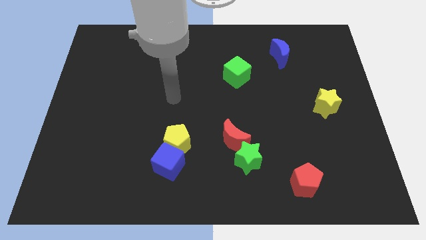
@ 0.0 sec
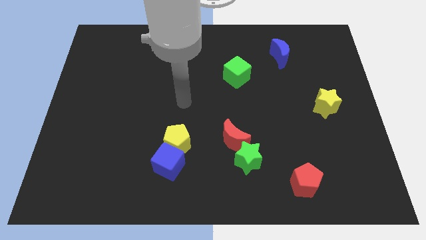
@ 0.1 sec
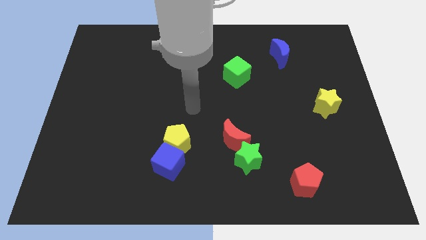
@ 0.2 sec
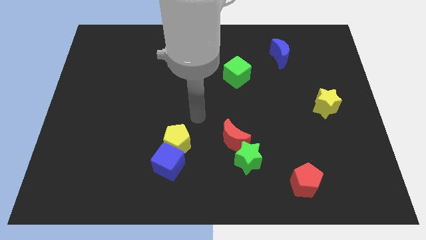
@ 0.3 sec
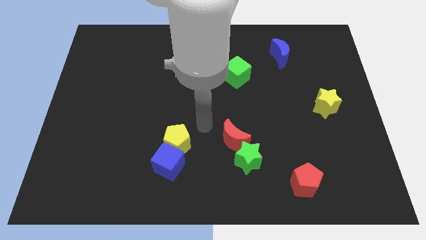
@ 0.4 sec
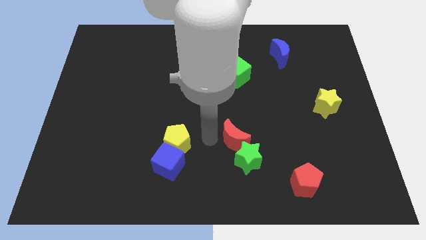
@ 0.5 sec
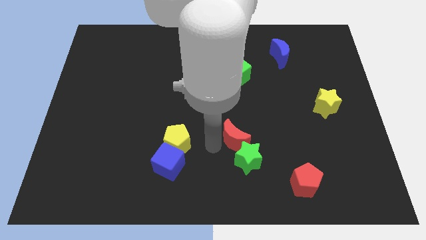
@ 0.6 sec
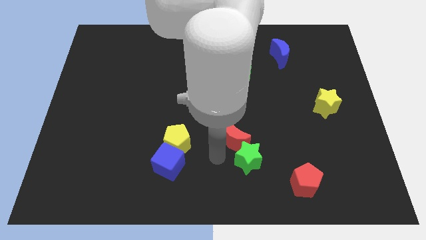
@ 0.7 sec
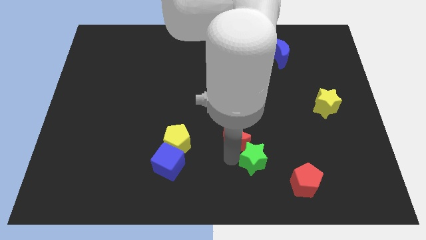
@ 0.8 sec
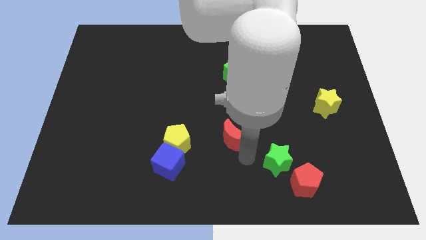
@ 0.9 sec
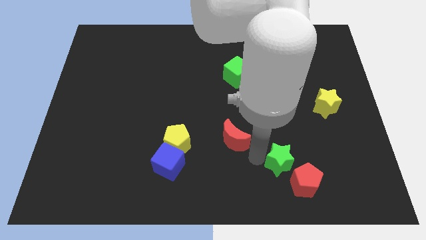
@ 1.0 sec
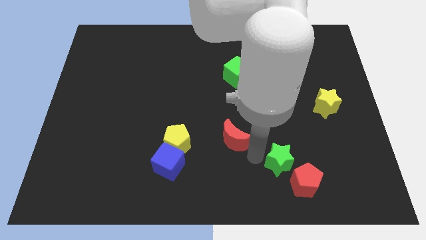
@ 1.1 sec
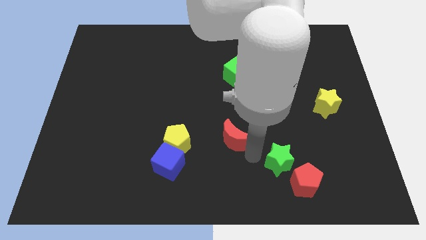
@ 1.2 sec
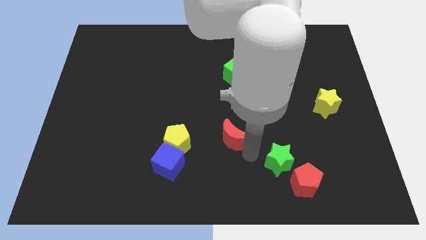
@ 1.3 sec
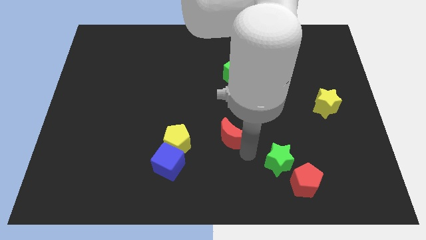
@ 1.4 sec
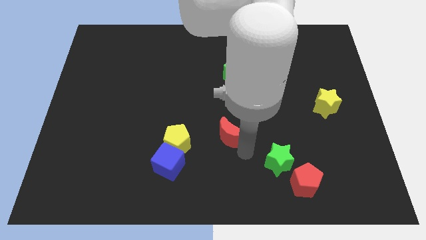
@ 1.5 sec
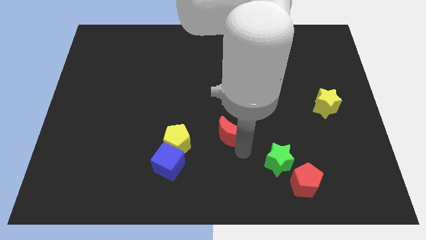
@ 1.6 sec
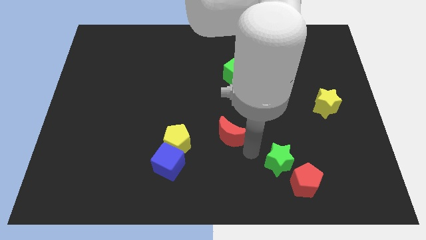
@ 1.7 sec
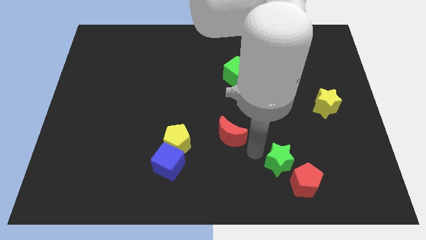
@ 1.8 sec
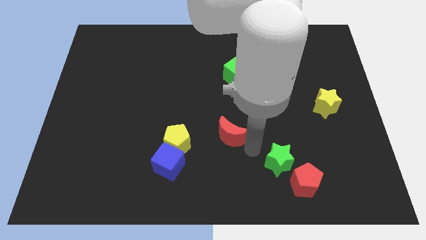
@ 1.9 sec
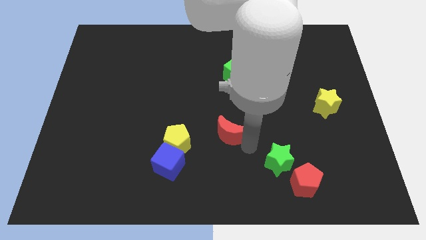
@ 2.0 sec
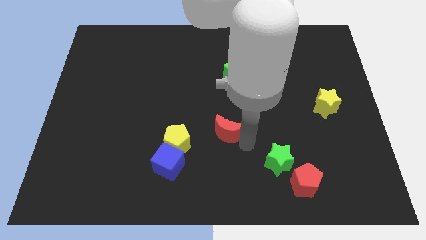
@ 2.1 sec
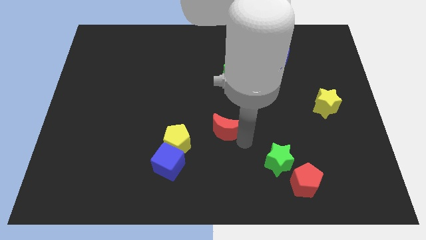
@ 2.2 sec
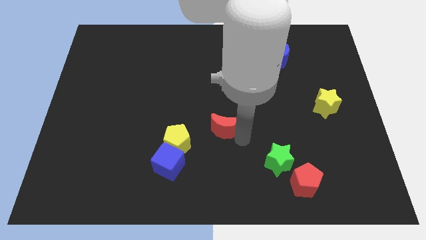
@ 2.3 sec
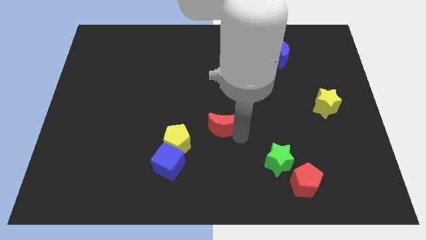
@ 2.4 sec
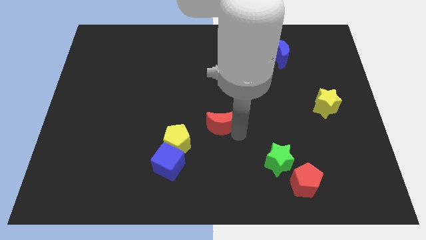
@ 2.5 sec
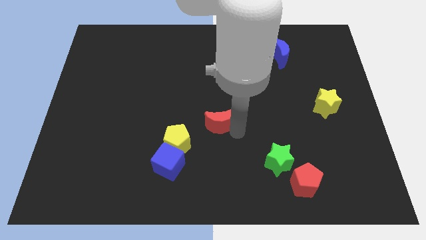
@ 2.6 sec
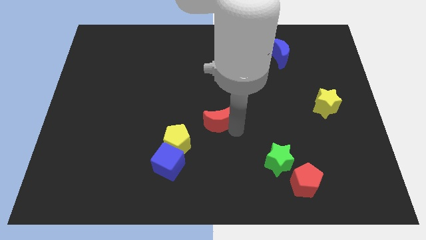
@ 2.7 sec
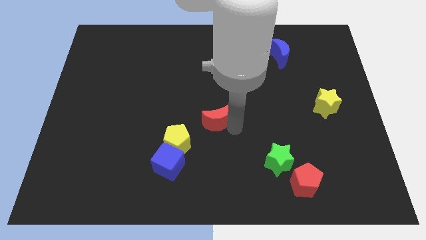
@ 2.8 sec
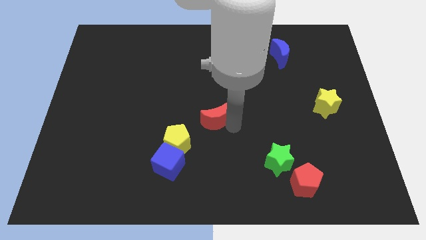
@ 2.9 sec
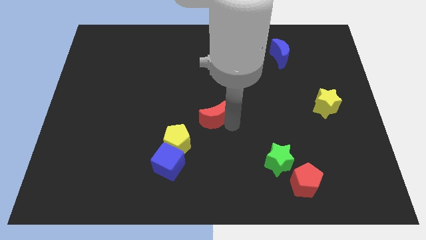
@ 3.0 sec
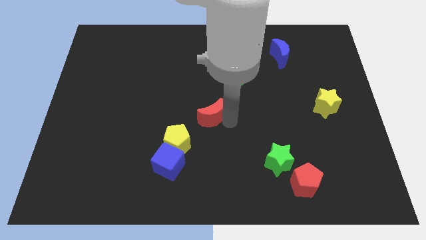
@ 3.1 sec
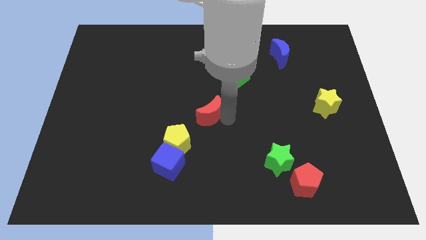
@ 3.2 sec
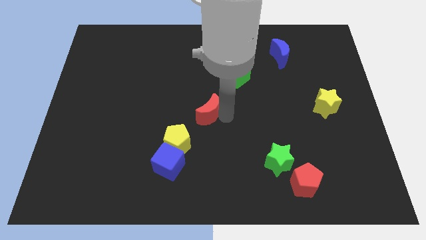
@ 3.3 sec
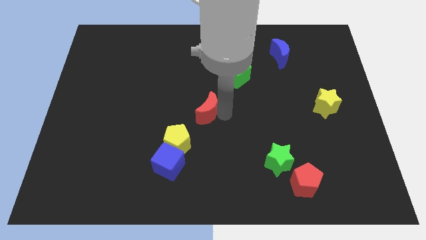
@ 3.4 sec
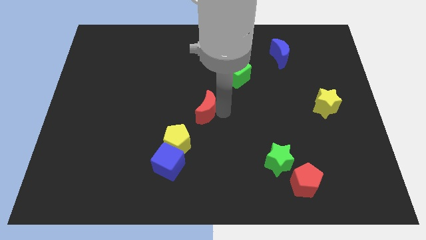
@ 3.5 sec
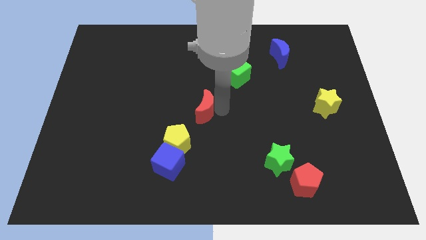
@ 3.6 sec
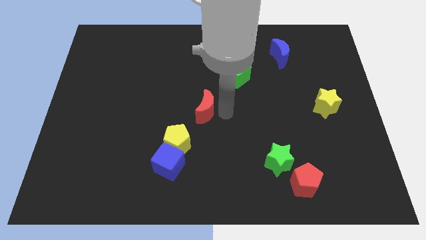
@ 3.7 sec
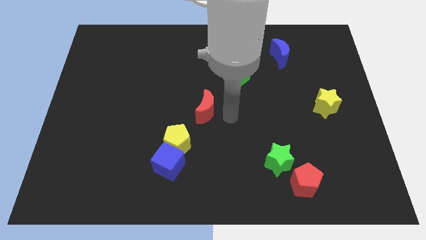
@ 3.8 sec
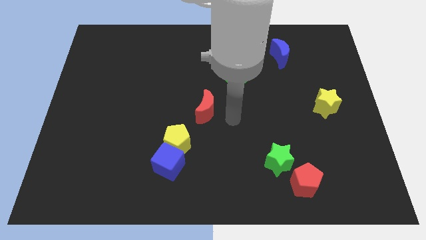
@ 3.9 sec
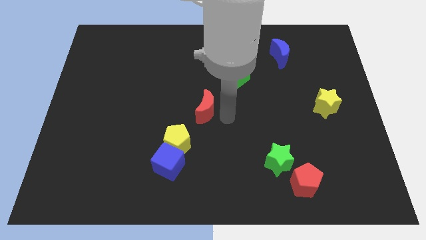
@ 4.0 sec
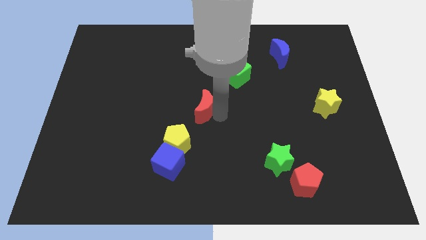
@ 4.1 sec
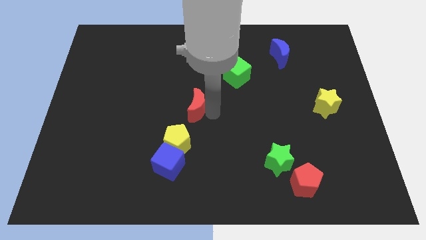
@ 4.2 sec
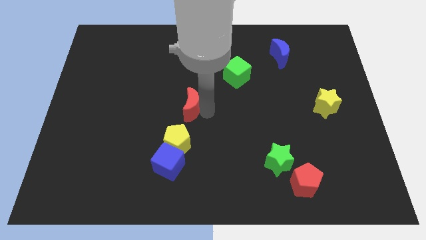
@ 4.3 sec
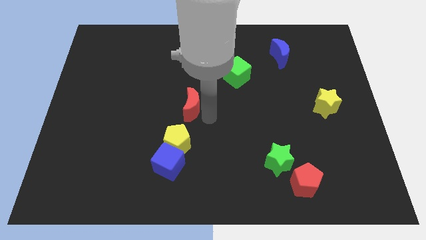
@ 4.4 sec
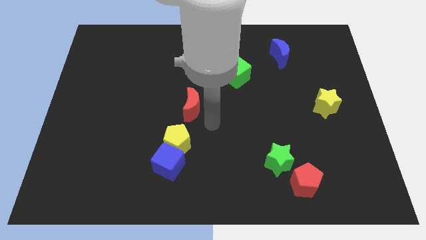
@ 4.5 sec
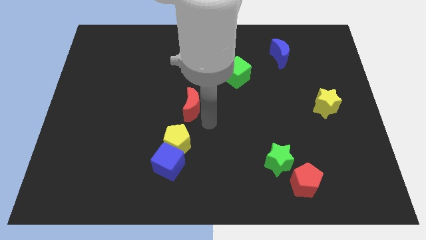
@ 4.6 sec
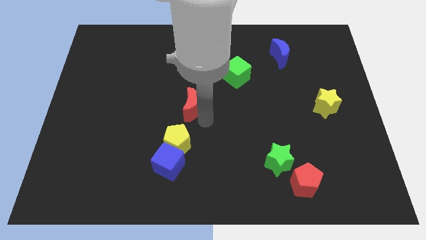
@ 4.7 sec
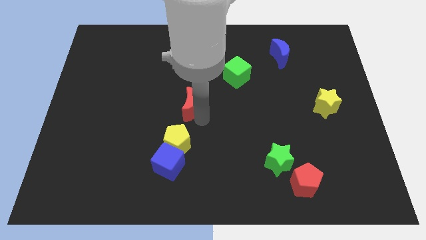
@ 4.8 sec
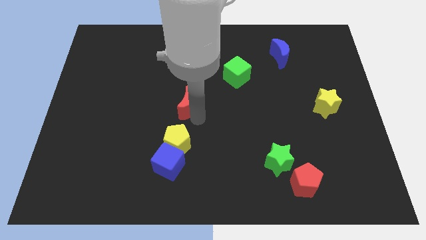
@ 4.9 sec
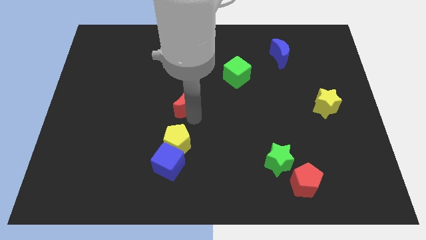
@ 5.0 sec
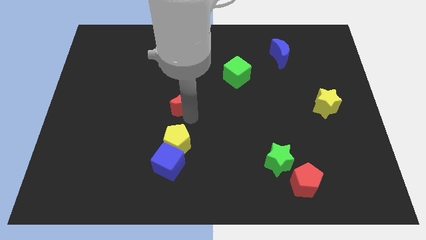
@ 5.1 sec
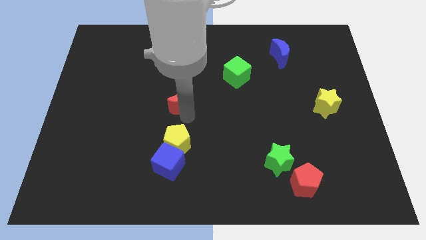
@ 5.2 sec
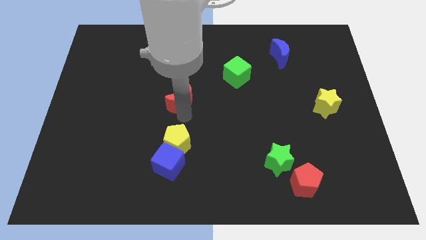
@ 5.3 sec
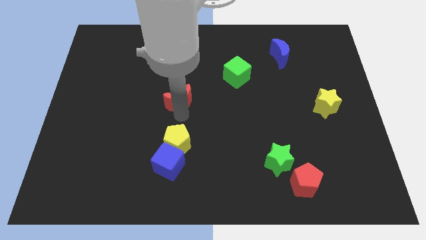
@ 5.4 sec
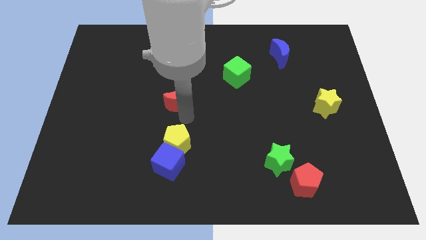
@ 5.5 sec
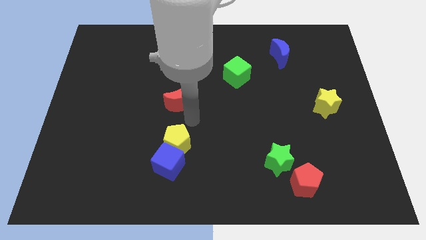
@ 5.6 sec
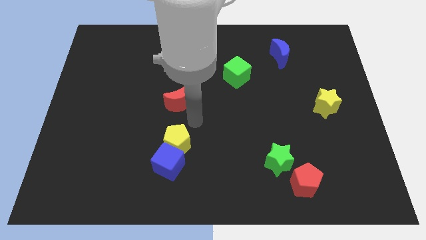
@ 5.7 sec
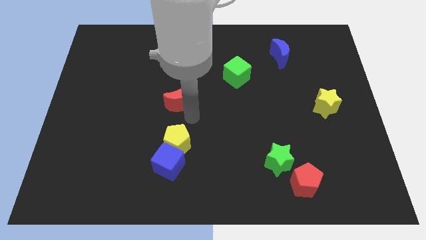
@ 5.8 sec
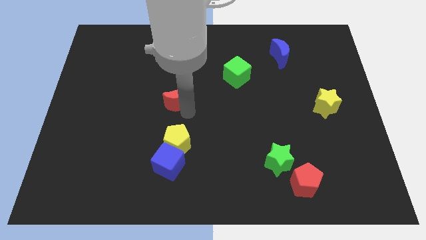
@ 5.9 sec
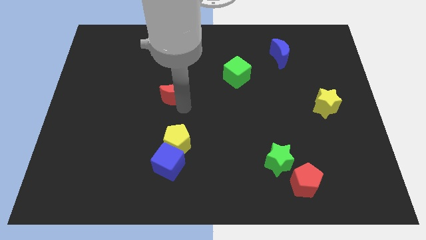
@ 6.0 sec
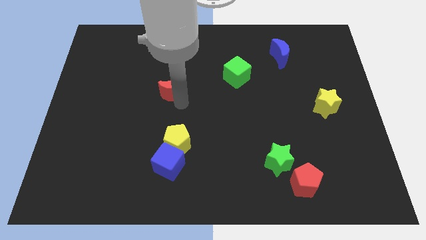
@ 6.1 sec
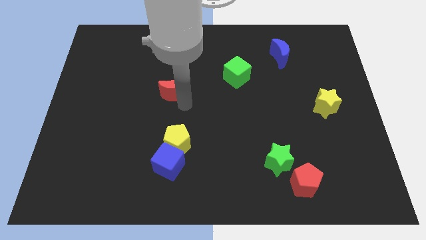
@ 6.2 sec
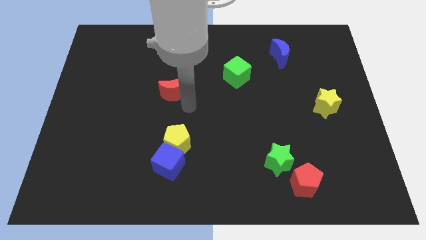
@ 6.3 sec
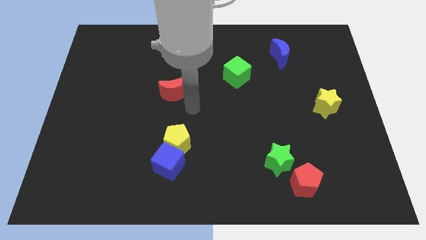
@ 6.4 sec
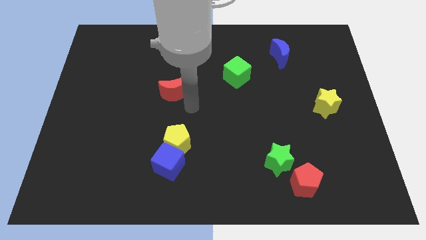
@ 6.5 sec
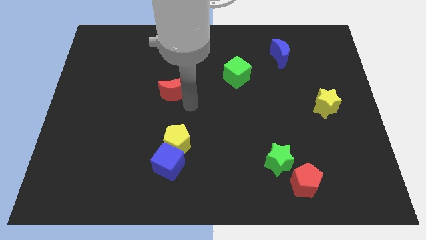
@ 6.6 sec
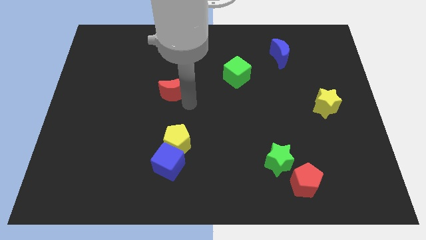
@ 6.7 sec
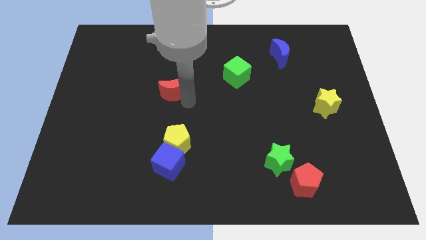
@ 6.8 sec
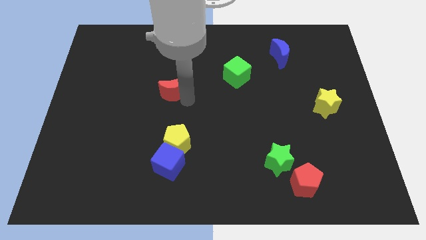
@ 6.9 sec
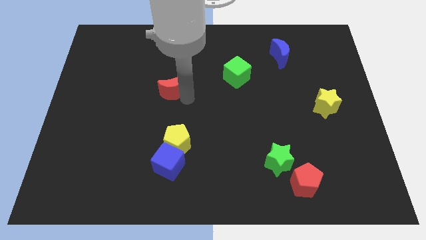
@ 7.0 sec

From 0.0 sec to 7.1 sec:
push the red moon diagonally upwards and to the left

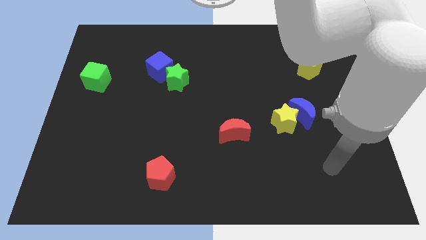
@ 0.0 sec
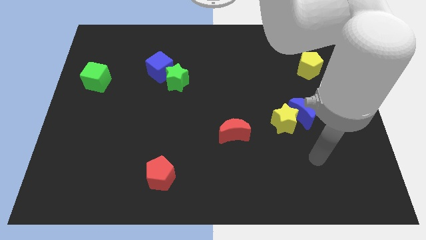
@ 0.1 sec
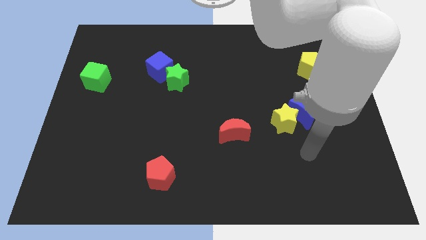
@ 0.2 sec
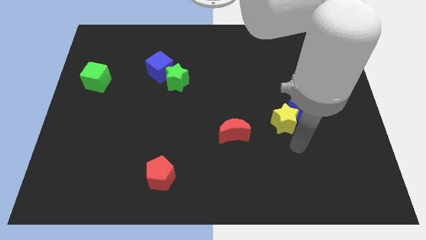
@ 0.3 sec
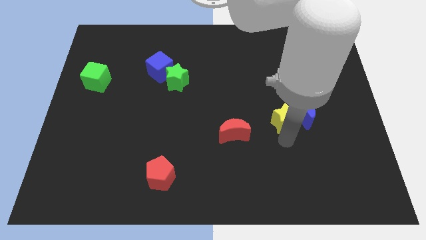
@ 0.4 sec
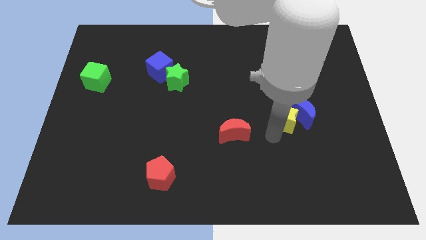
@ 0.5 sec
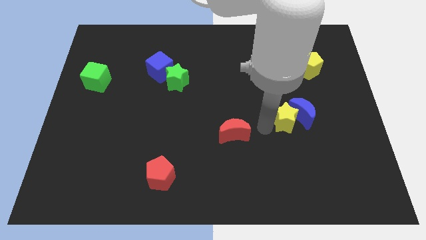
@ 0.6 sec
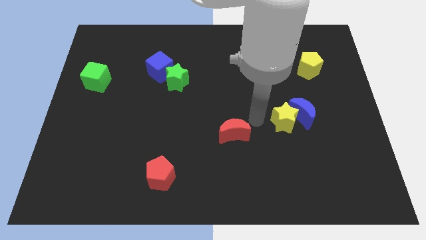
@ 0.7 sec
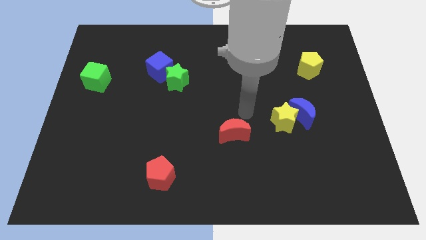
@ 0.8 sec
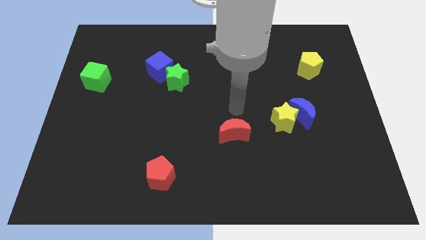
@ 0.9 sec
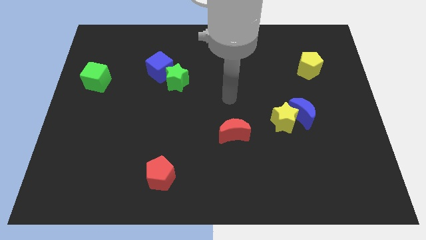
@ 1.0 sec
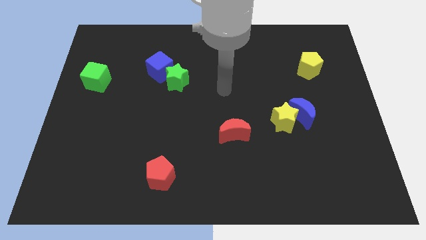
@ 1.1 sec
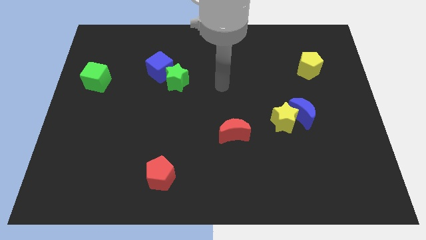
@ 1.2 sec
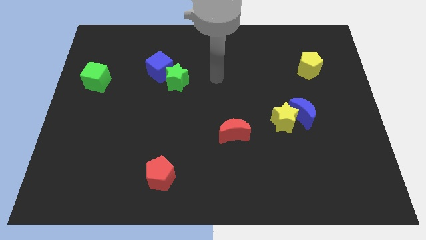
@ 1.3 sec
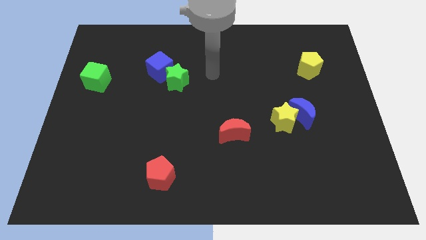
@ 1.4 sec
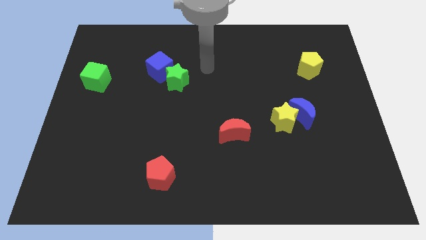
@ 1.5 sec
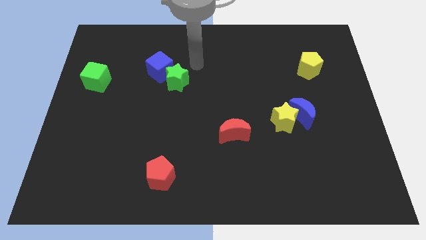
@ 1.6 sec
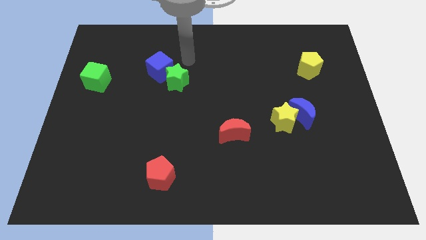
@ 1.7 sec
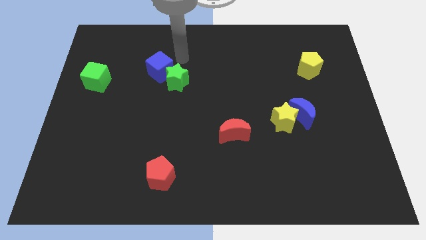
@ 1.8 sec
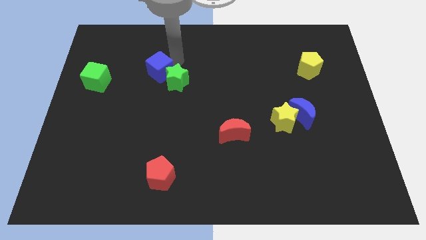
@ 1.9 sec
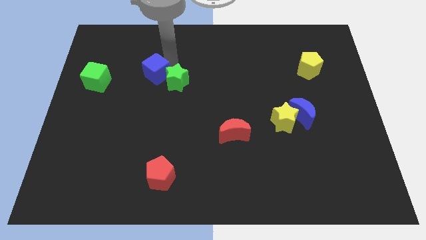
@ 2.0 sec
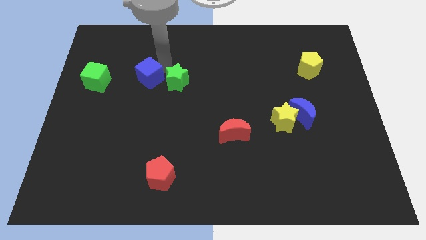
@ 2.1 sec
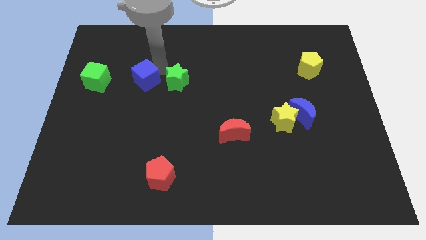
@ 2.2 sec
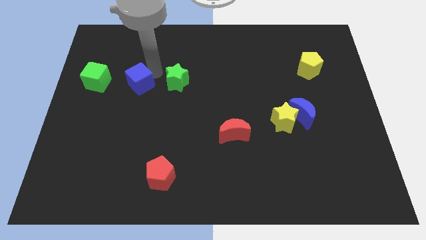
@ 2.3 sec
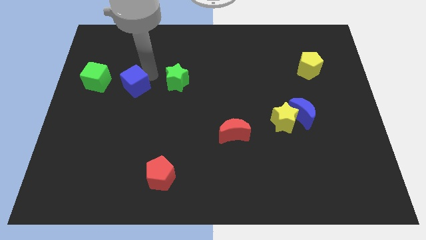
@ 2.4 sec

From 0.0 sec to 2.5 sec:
push the blue cube downwards and to the left a little
